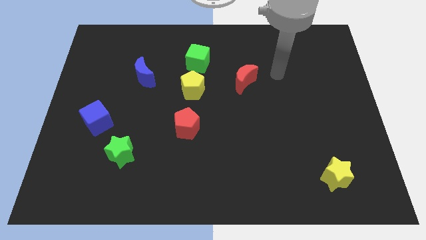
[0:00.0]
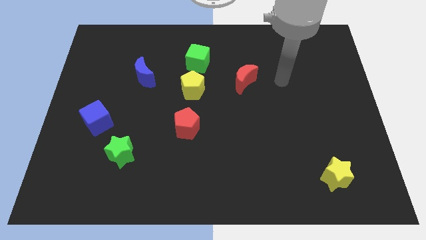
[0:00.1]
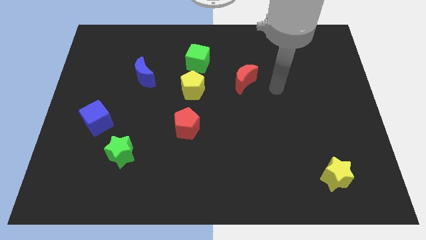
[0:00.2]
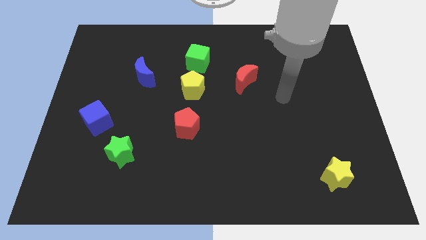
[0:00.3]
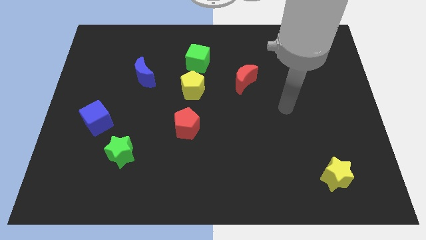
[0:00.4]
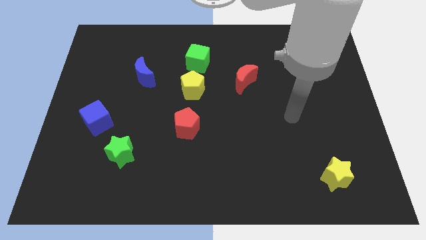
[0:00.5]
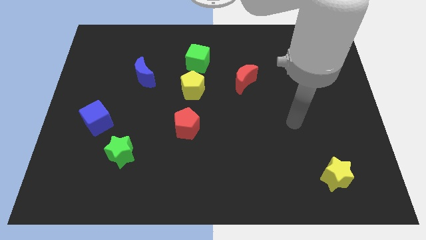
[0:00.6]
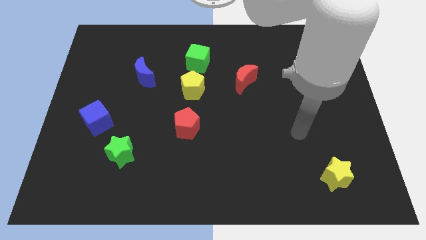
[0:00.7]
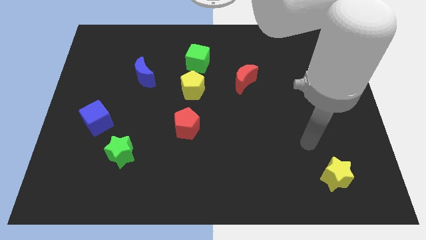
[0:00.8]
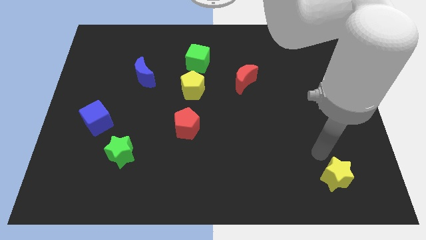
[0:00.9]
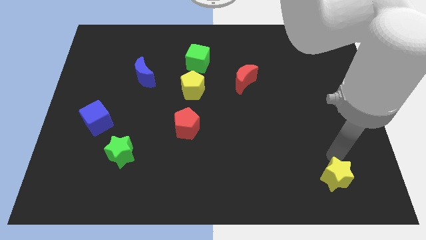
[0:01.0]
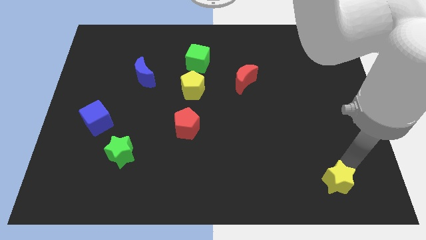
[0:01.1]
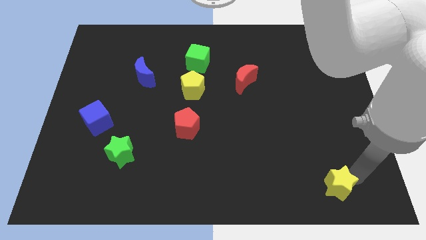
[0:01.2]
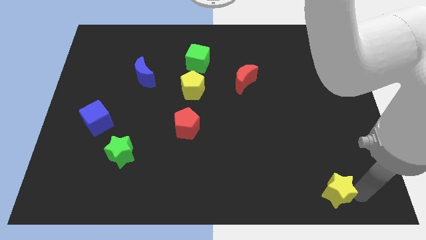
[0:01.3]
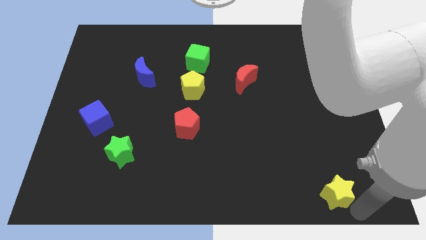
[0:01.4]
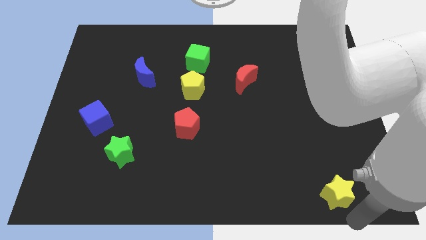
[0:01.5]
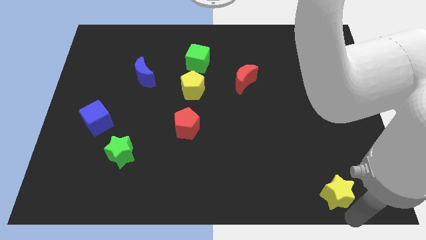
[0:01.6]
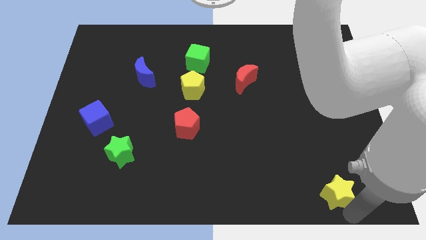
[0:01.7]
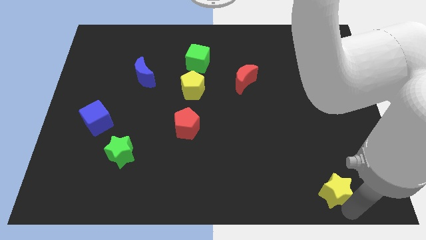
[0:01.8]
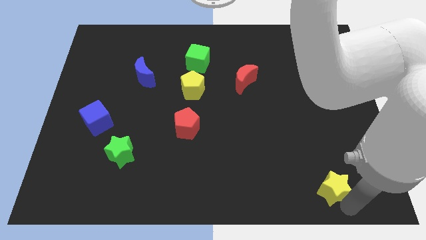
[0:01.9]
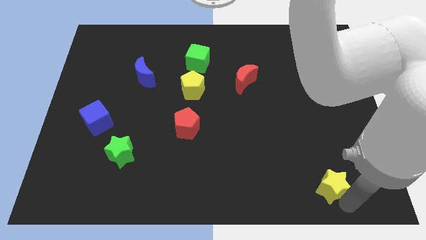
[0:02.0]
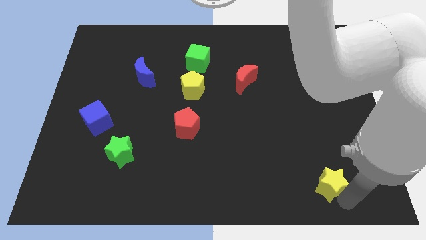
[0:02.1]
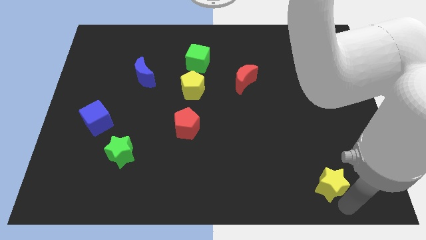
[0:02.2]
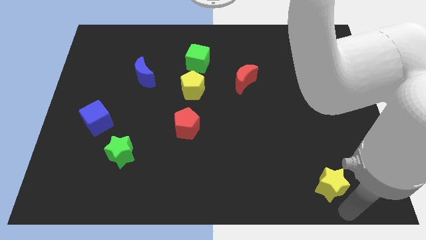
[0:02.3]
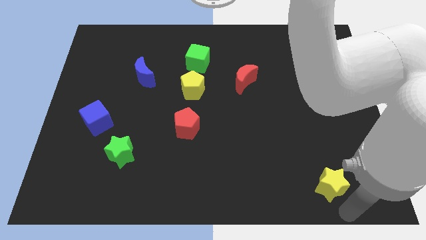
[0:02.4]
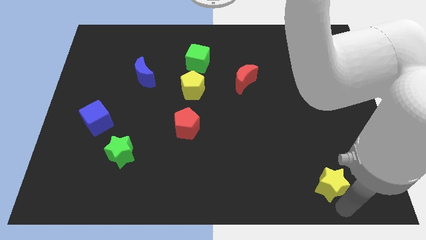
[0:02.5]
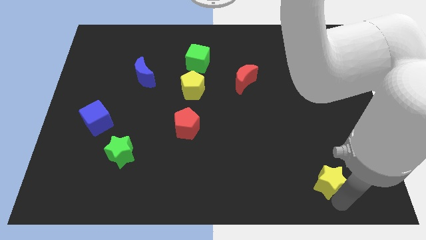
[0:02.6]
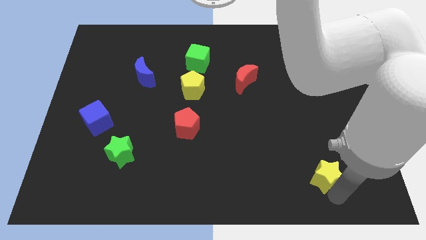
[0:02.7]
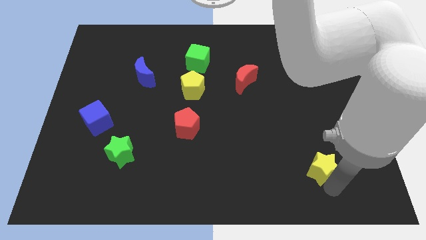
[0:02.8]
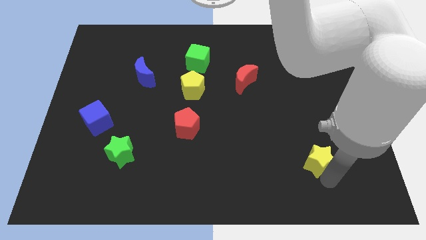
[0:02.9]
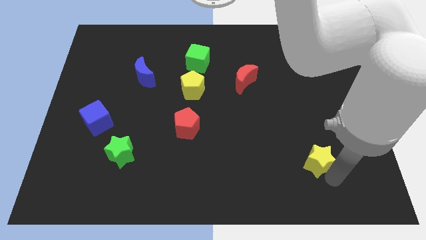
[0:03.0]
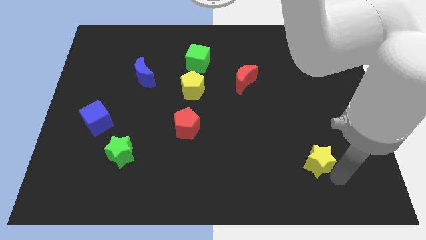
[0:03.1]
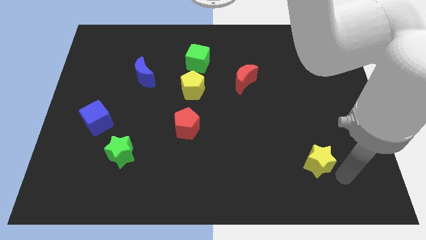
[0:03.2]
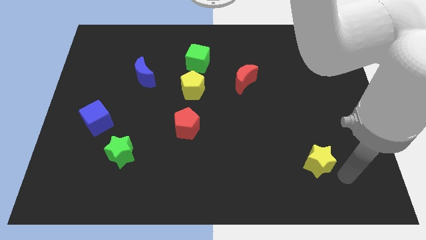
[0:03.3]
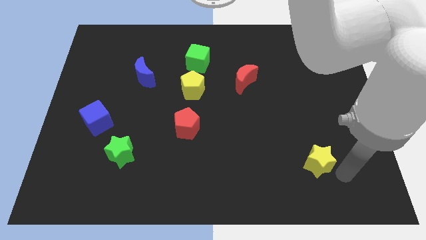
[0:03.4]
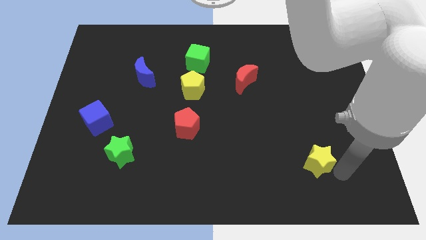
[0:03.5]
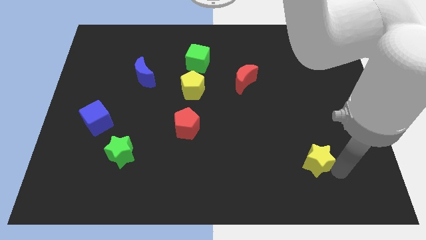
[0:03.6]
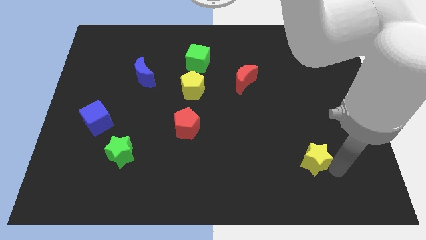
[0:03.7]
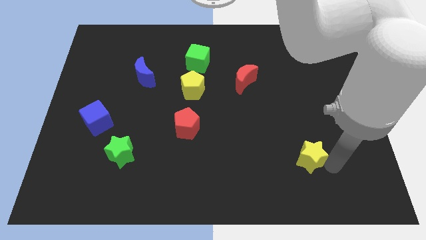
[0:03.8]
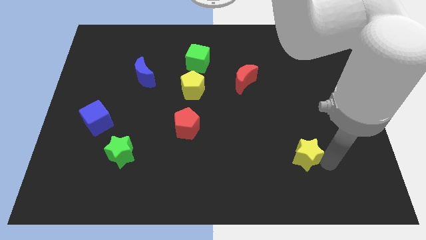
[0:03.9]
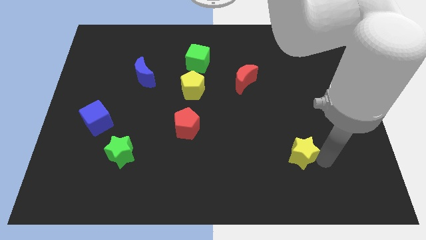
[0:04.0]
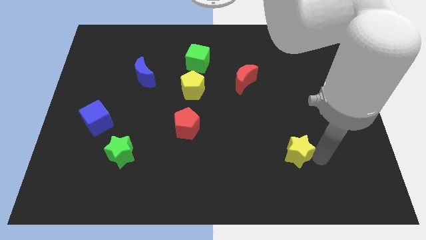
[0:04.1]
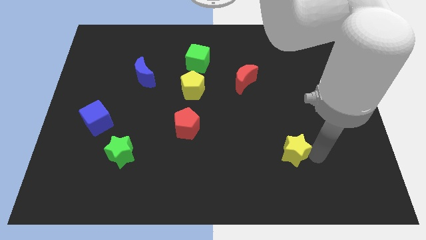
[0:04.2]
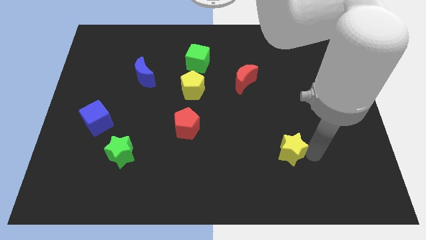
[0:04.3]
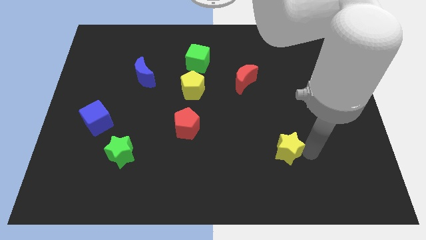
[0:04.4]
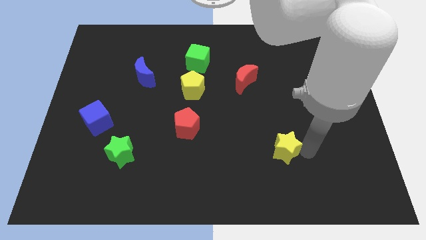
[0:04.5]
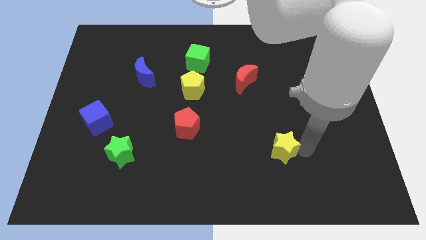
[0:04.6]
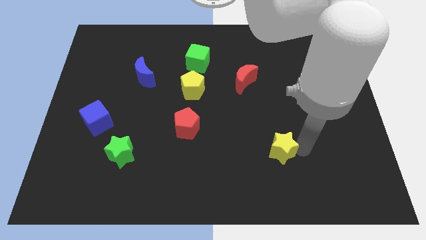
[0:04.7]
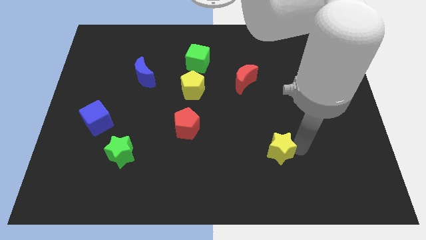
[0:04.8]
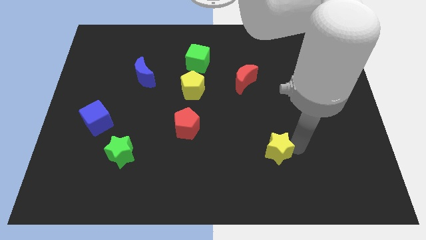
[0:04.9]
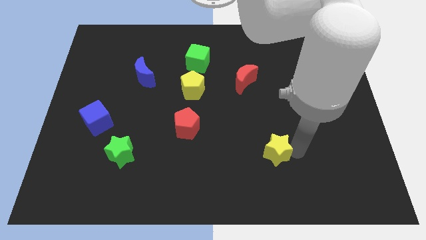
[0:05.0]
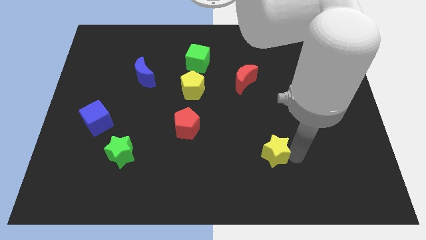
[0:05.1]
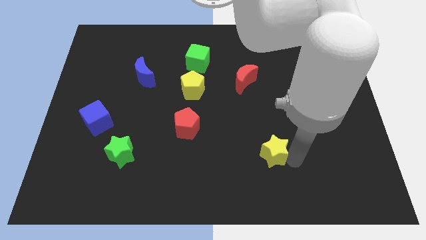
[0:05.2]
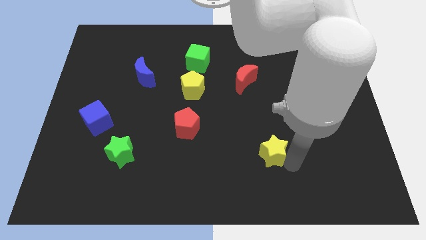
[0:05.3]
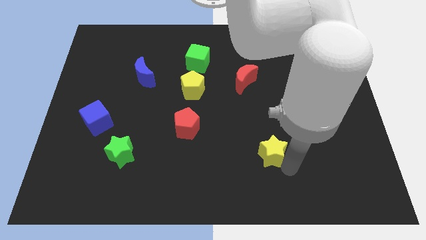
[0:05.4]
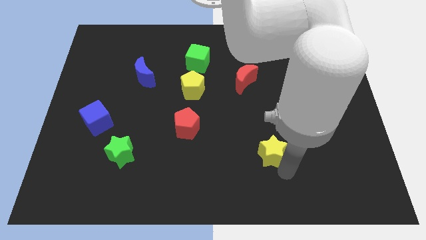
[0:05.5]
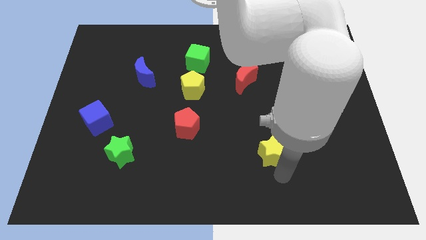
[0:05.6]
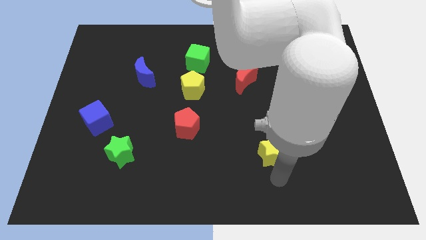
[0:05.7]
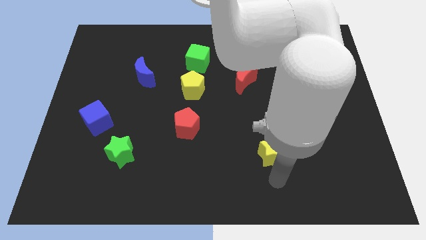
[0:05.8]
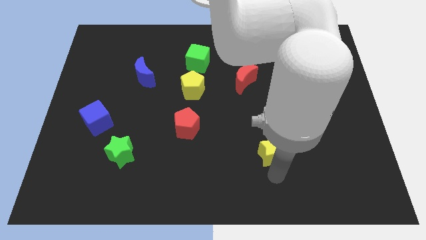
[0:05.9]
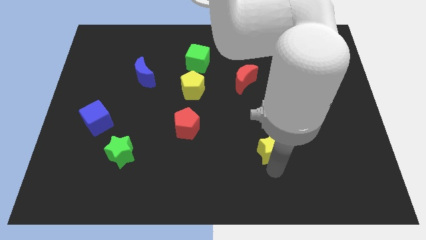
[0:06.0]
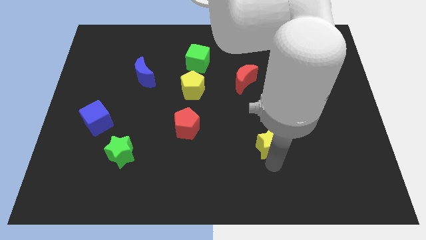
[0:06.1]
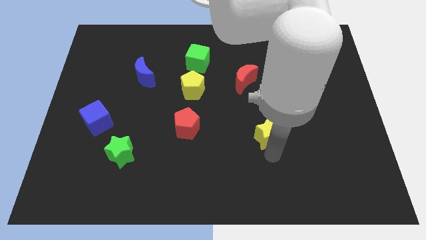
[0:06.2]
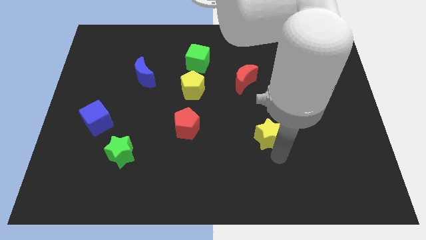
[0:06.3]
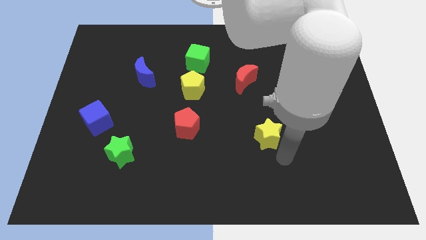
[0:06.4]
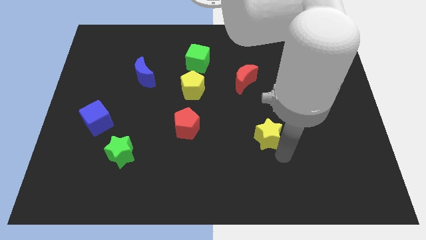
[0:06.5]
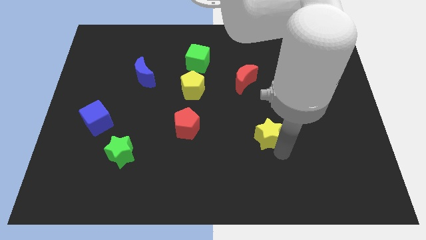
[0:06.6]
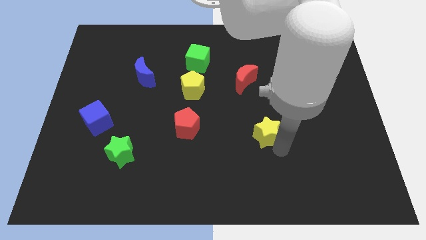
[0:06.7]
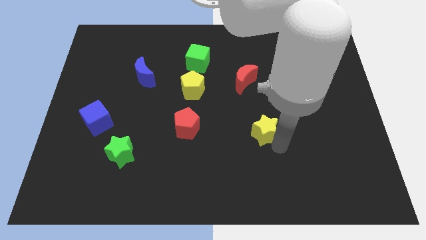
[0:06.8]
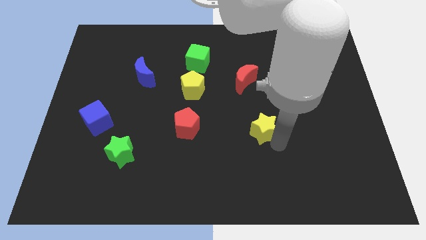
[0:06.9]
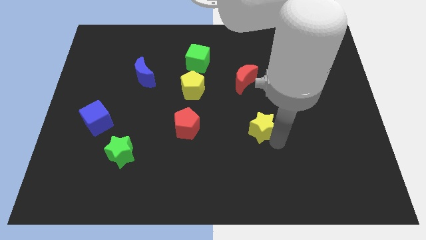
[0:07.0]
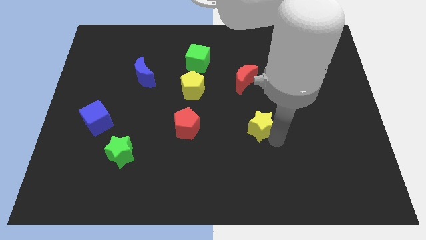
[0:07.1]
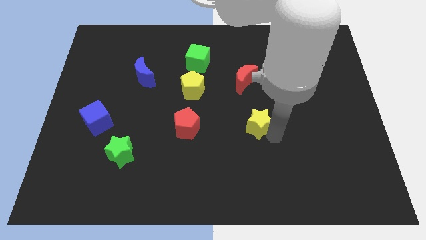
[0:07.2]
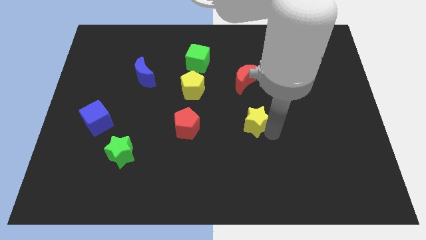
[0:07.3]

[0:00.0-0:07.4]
move the yellow star upwards and left diagonally

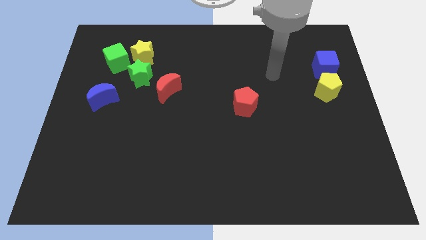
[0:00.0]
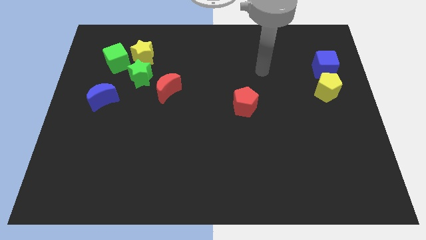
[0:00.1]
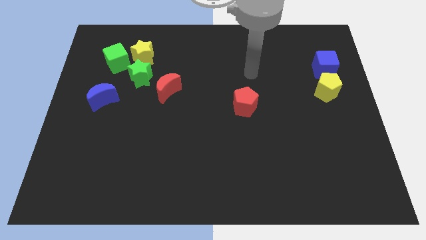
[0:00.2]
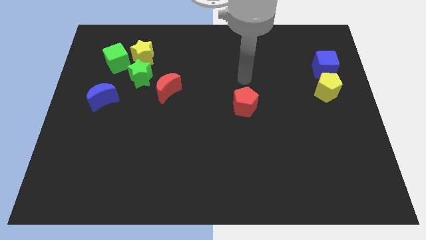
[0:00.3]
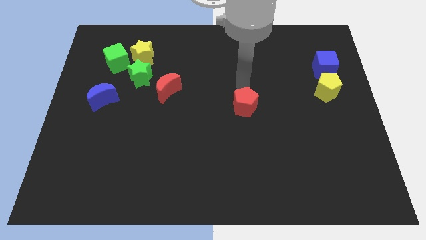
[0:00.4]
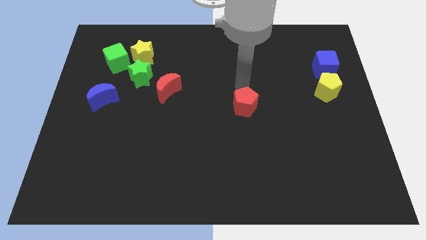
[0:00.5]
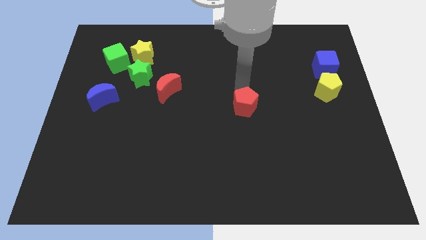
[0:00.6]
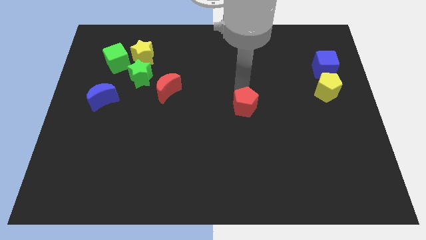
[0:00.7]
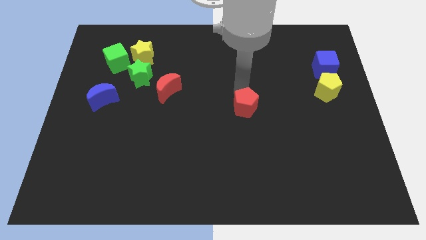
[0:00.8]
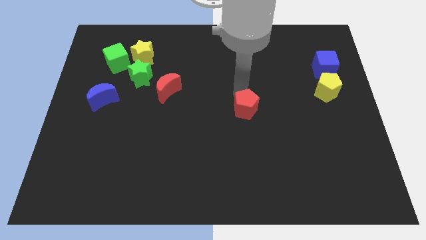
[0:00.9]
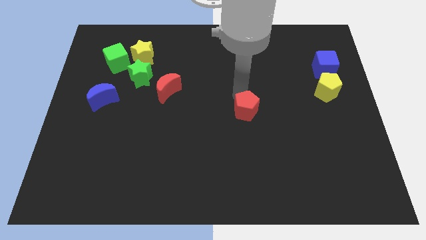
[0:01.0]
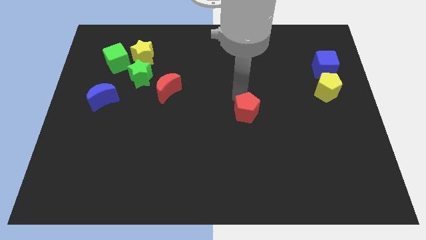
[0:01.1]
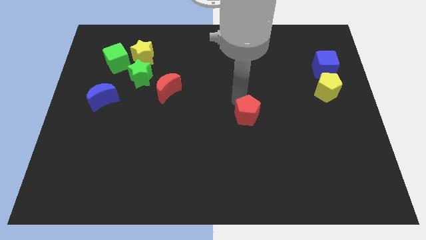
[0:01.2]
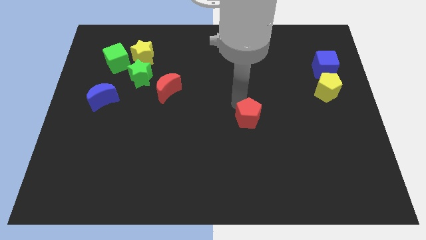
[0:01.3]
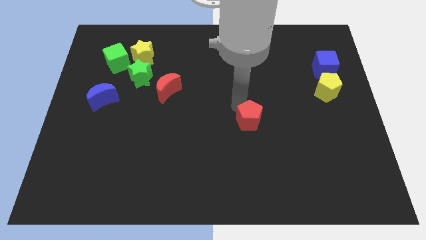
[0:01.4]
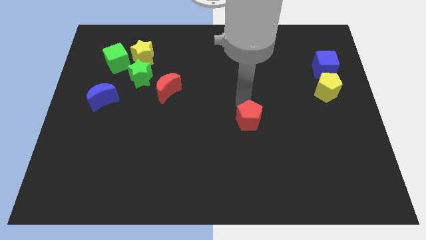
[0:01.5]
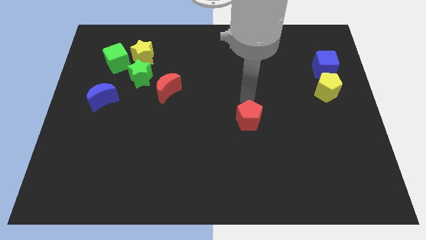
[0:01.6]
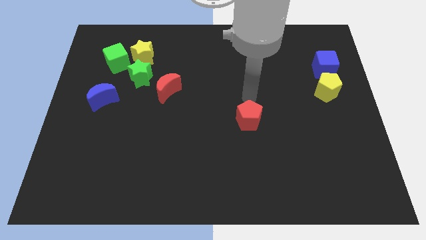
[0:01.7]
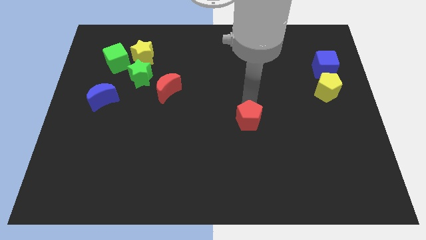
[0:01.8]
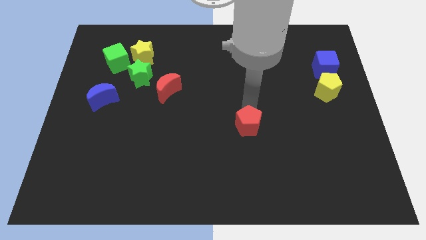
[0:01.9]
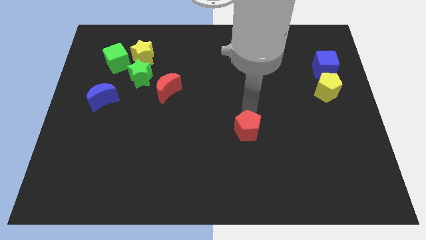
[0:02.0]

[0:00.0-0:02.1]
slightly push the red pentagon downwards
